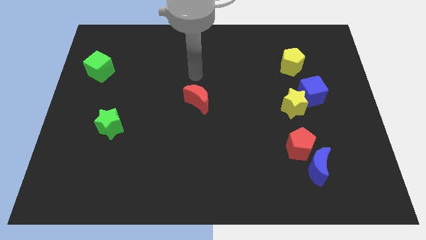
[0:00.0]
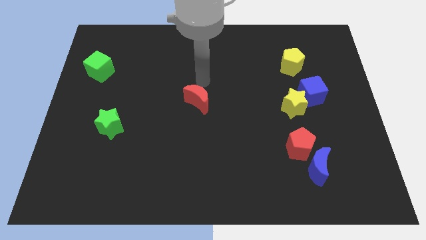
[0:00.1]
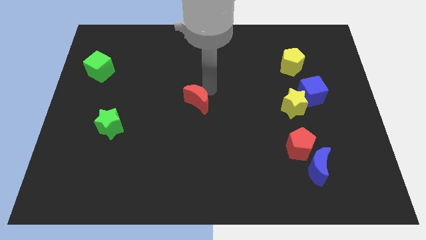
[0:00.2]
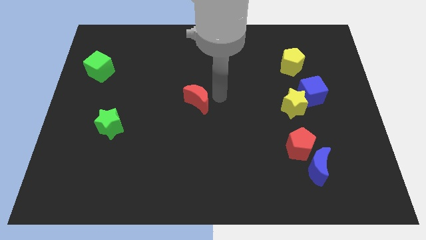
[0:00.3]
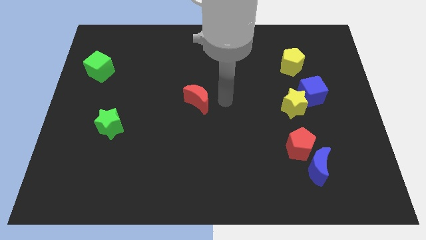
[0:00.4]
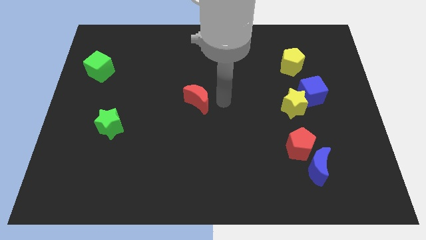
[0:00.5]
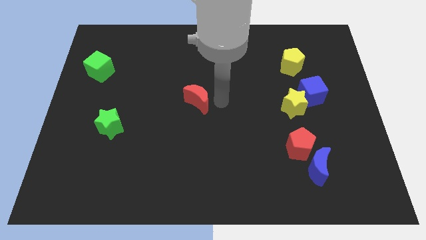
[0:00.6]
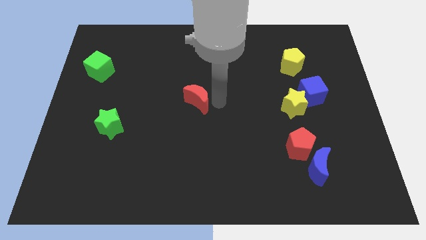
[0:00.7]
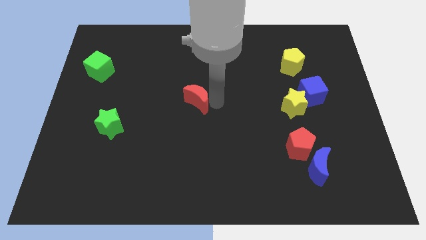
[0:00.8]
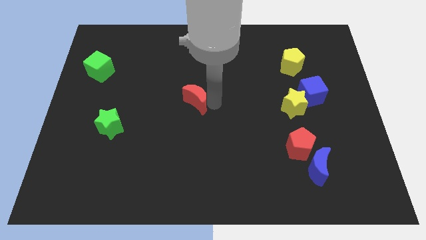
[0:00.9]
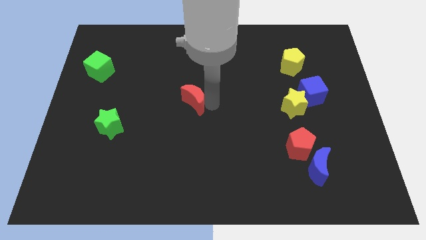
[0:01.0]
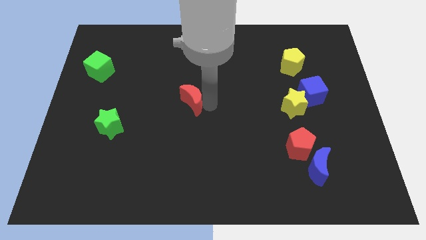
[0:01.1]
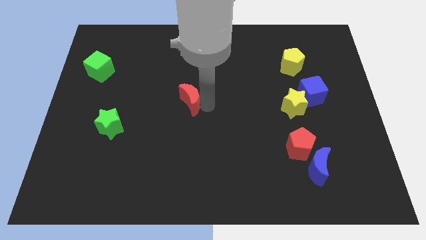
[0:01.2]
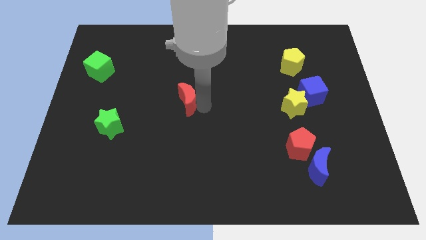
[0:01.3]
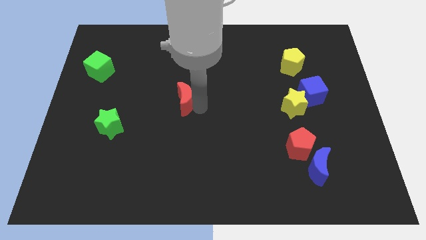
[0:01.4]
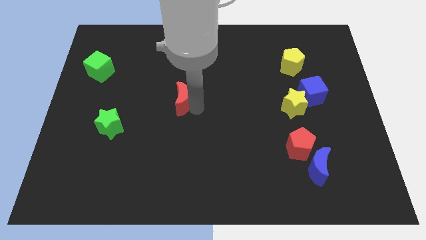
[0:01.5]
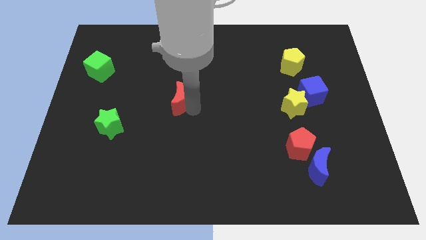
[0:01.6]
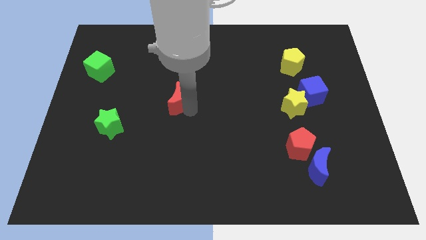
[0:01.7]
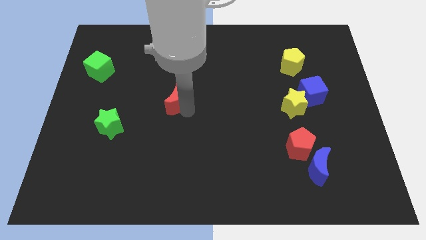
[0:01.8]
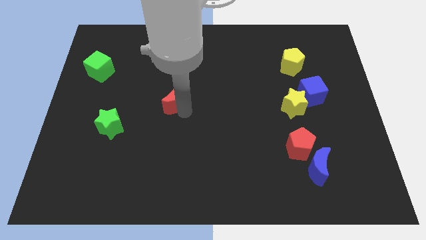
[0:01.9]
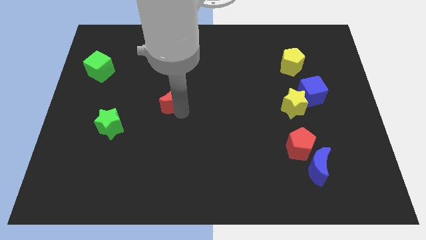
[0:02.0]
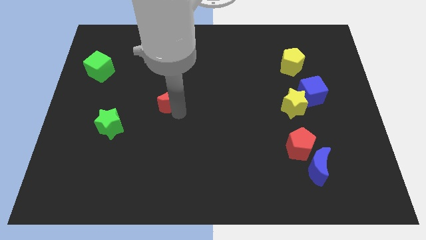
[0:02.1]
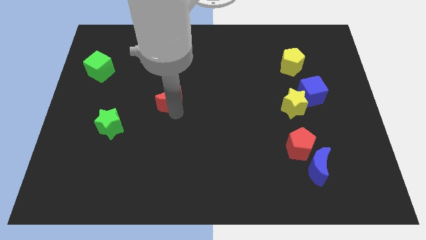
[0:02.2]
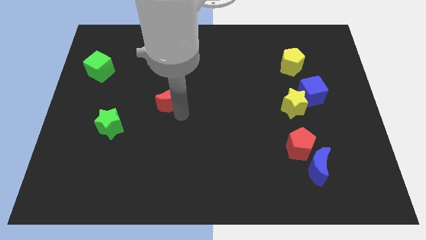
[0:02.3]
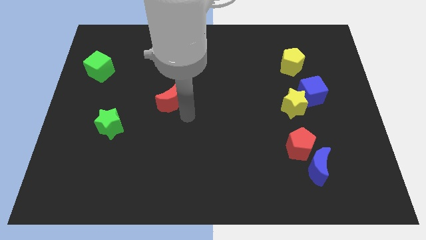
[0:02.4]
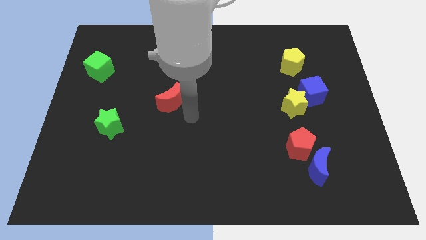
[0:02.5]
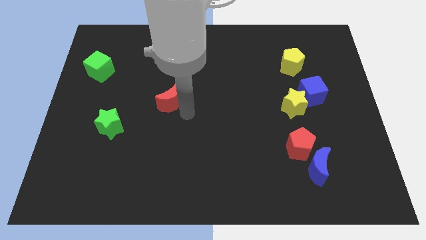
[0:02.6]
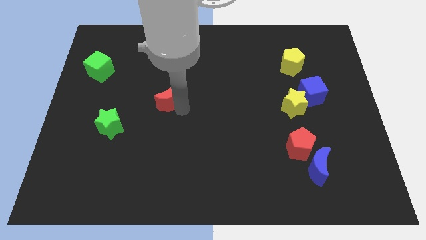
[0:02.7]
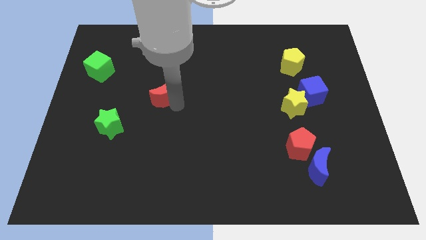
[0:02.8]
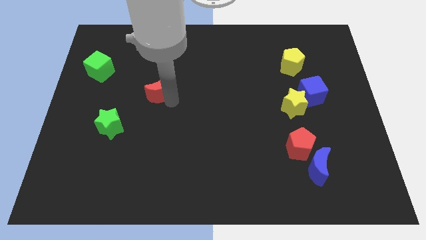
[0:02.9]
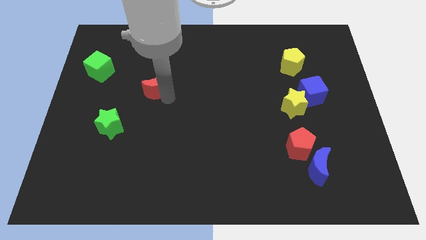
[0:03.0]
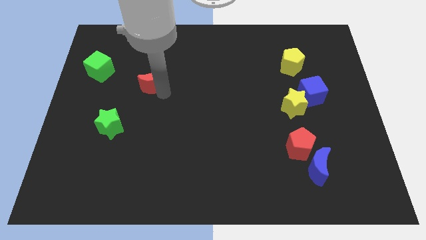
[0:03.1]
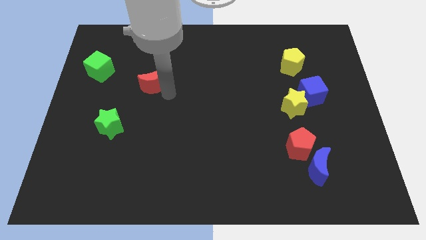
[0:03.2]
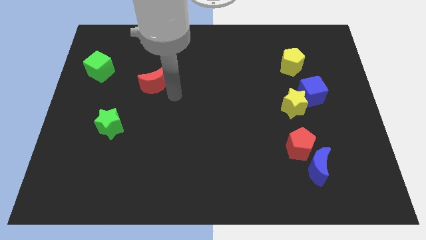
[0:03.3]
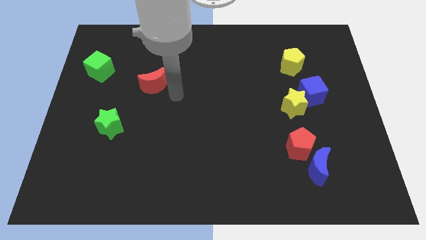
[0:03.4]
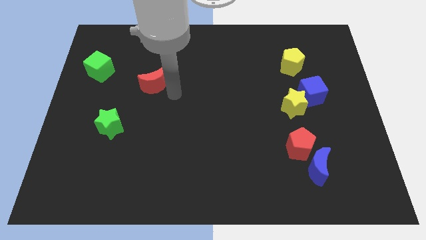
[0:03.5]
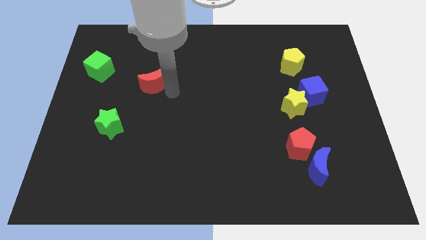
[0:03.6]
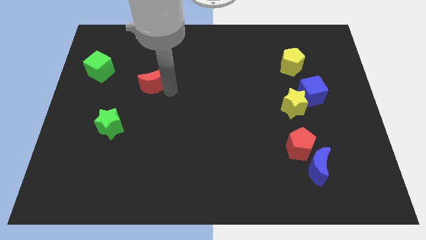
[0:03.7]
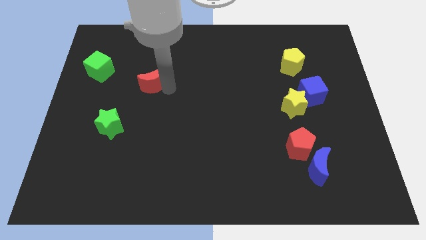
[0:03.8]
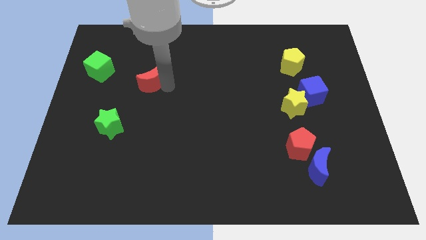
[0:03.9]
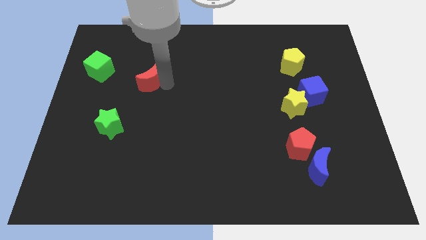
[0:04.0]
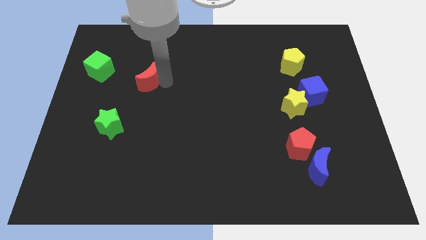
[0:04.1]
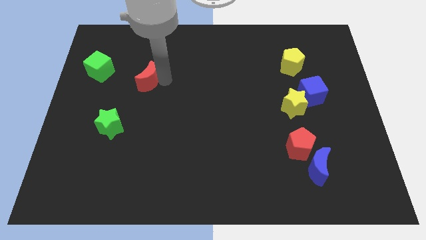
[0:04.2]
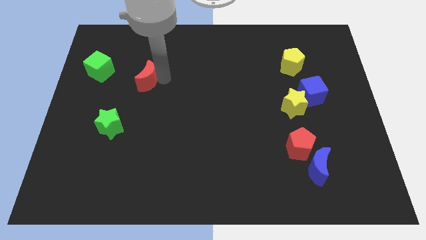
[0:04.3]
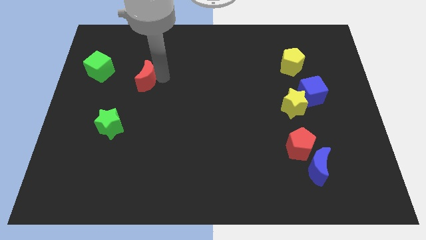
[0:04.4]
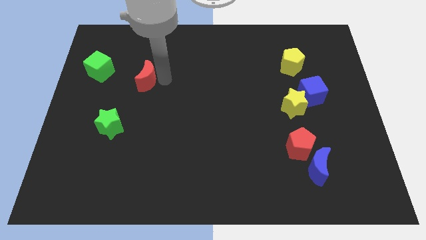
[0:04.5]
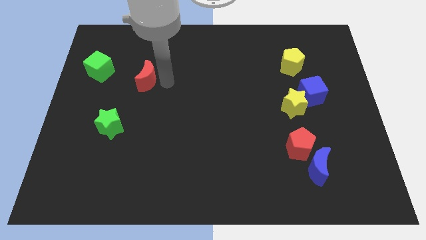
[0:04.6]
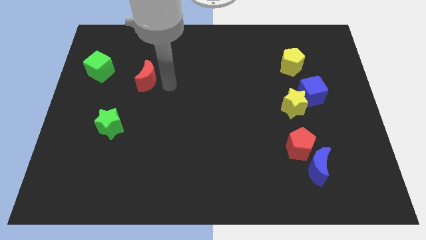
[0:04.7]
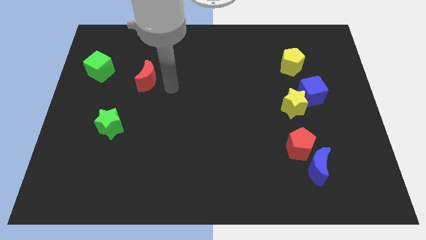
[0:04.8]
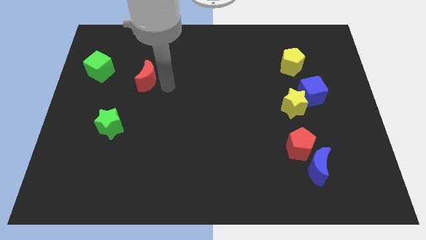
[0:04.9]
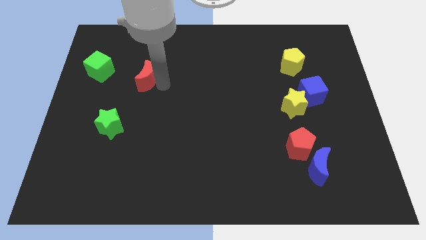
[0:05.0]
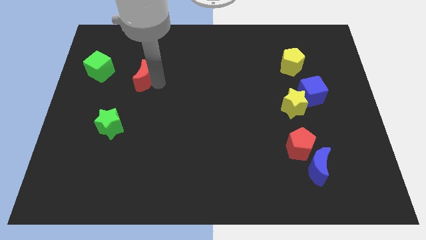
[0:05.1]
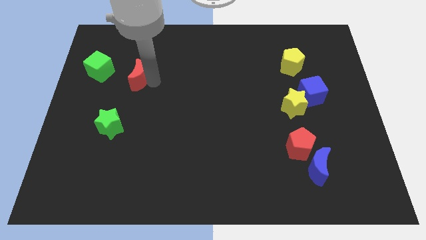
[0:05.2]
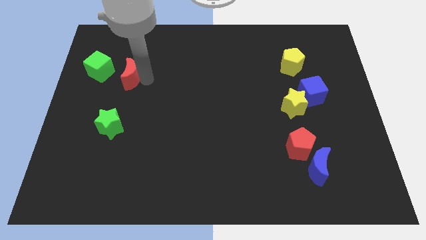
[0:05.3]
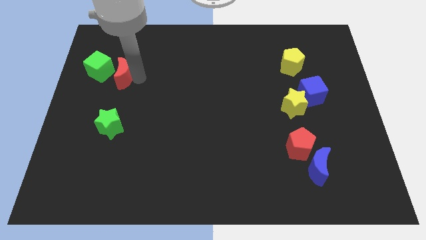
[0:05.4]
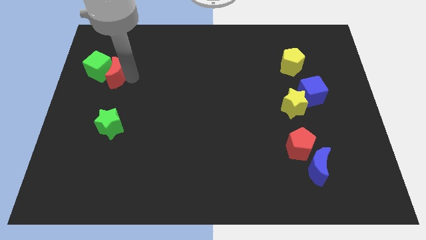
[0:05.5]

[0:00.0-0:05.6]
put the red moon close to the green cube

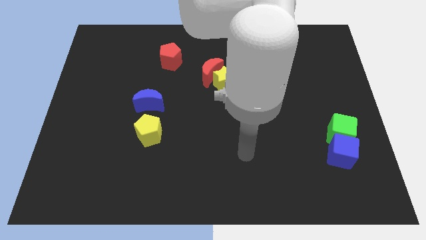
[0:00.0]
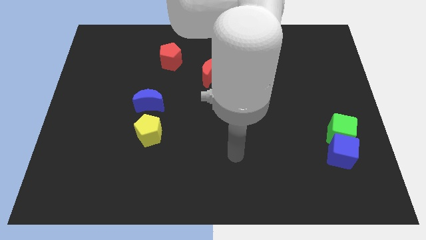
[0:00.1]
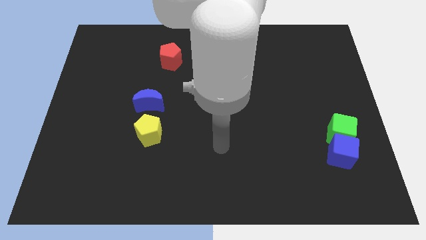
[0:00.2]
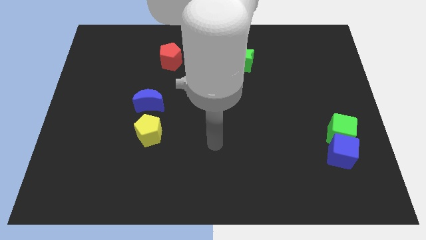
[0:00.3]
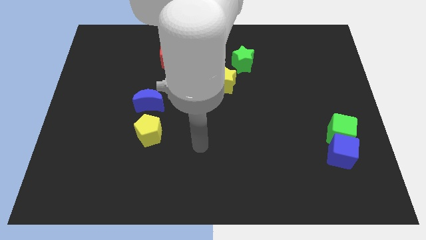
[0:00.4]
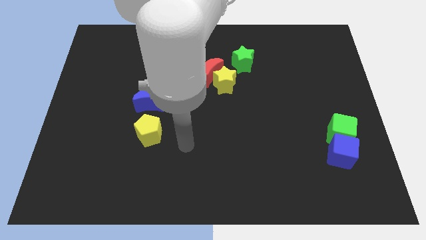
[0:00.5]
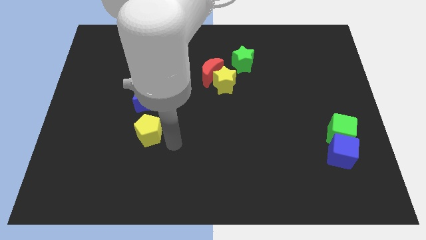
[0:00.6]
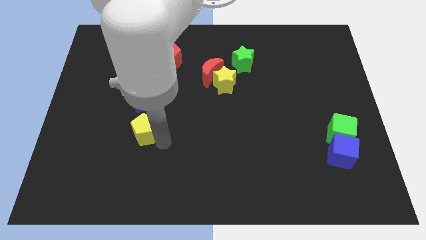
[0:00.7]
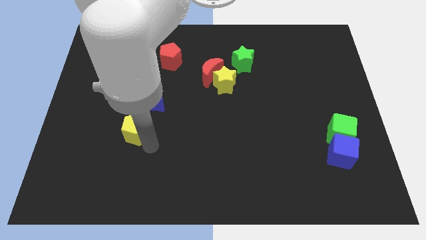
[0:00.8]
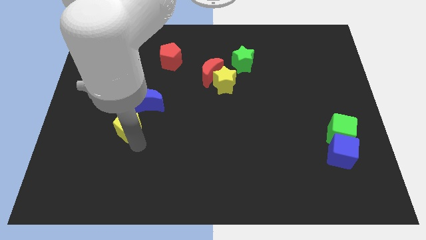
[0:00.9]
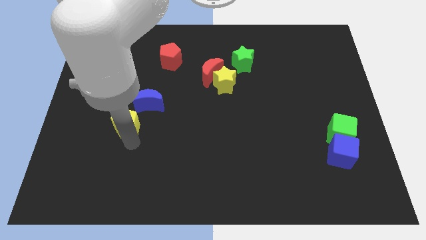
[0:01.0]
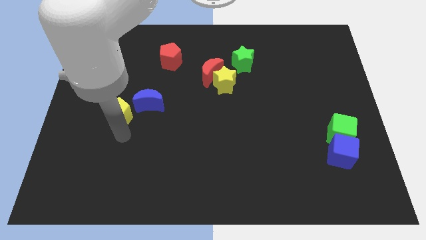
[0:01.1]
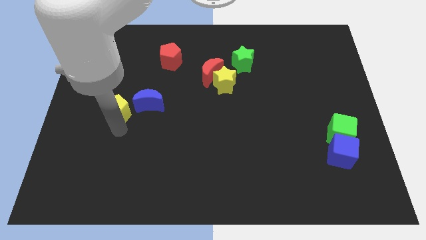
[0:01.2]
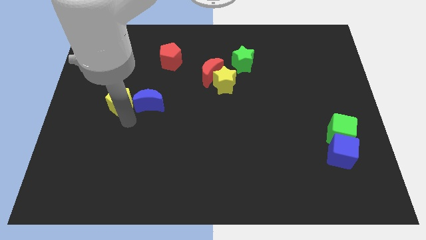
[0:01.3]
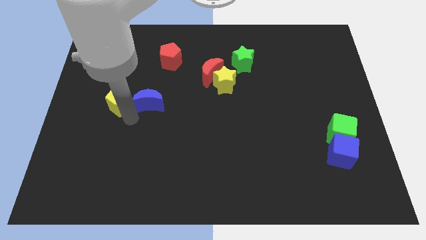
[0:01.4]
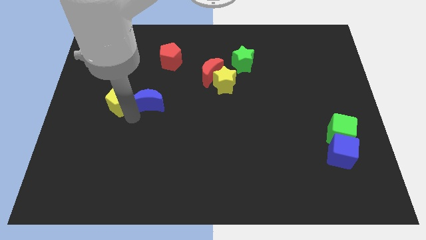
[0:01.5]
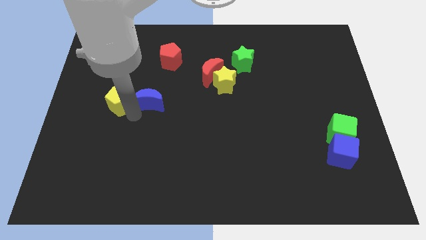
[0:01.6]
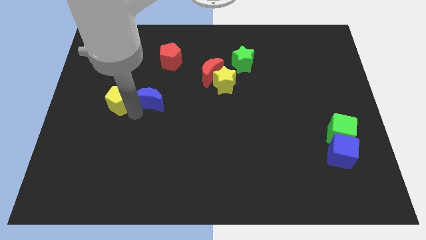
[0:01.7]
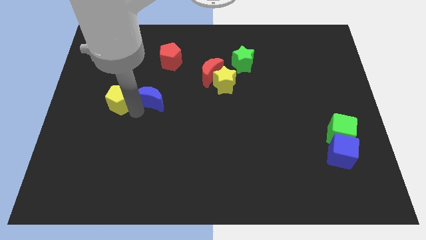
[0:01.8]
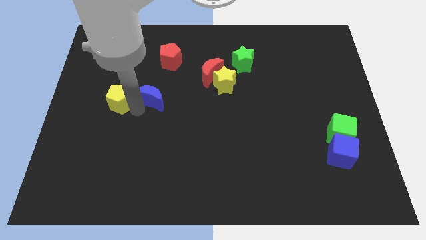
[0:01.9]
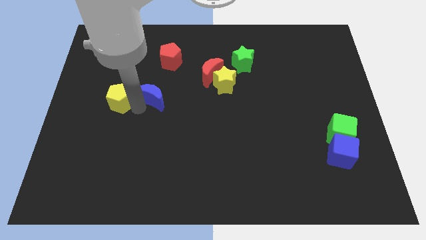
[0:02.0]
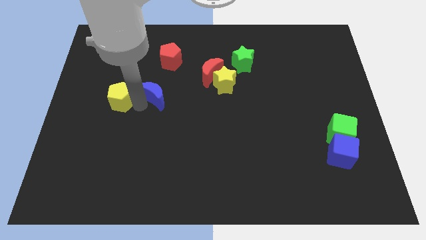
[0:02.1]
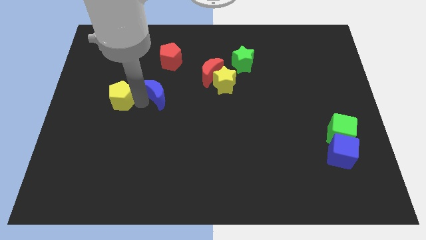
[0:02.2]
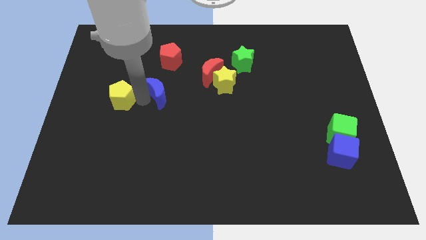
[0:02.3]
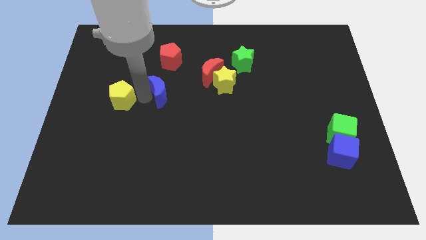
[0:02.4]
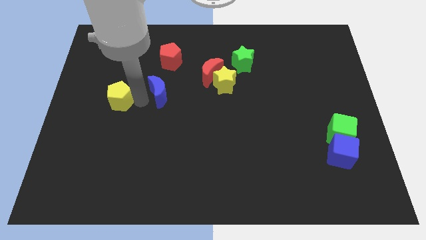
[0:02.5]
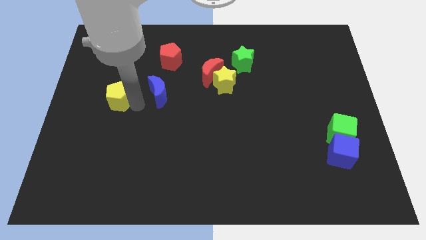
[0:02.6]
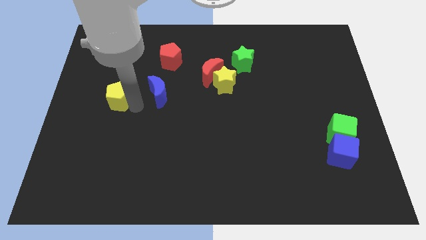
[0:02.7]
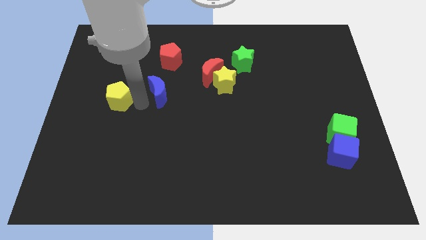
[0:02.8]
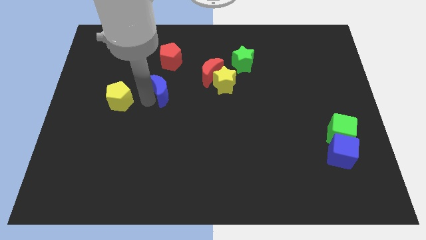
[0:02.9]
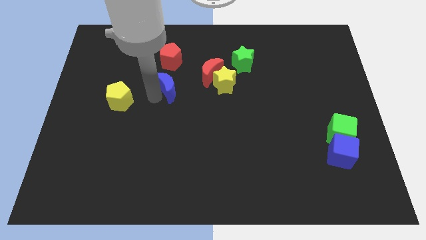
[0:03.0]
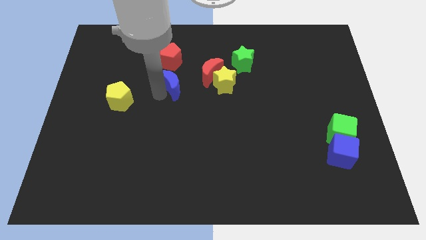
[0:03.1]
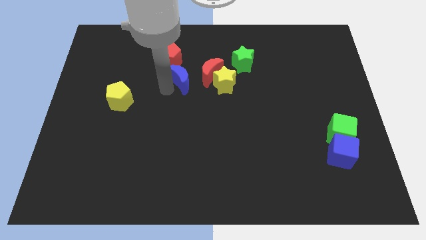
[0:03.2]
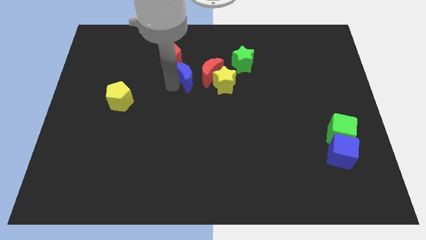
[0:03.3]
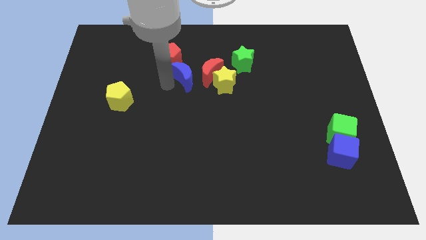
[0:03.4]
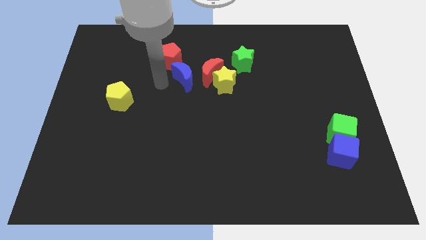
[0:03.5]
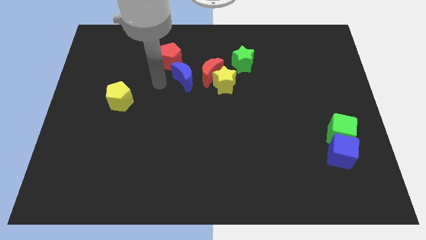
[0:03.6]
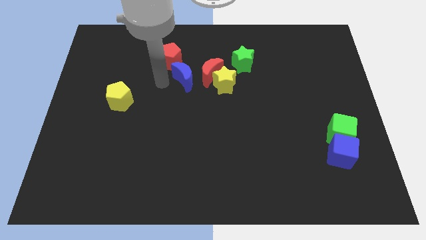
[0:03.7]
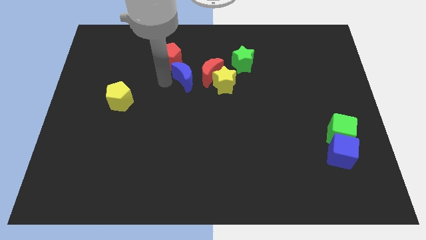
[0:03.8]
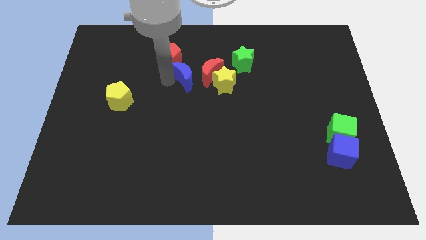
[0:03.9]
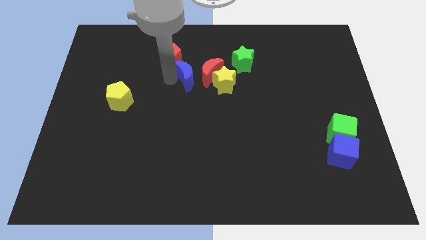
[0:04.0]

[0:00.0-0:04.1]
put the blue moon next to the red moon
